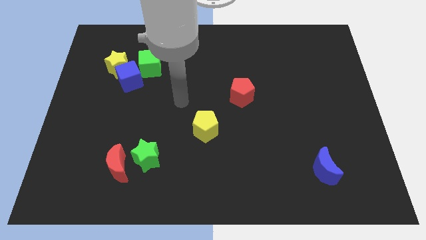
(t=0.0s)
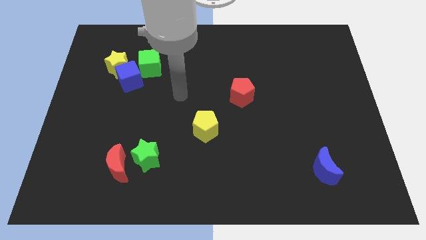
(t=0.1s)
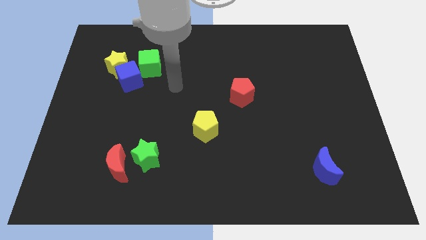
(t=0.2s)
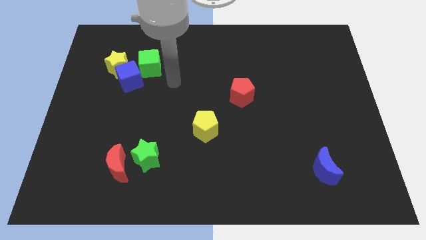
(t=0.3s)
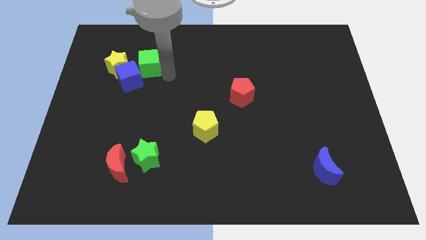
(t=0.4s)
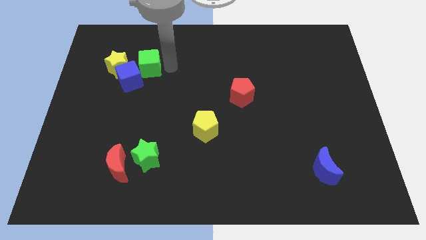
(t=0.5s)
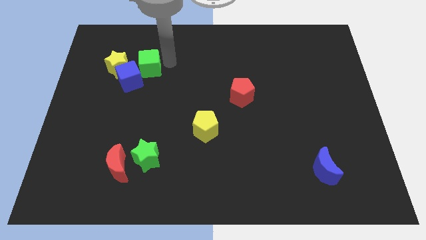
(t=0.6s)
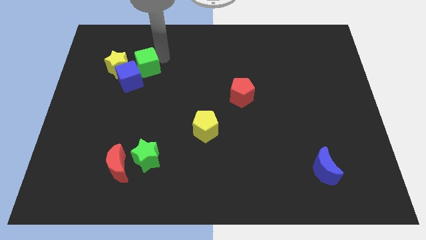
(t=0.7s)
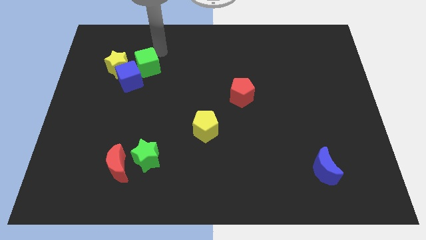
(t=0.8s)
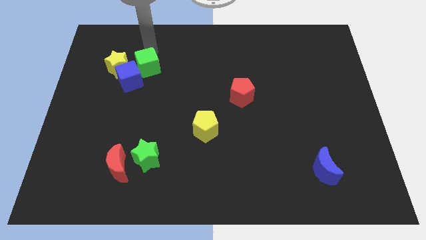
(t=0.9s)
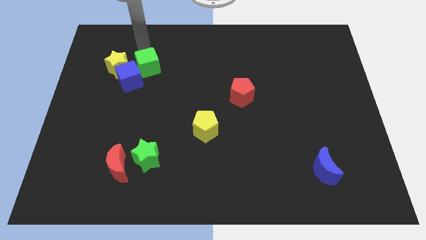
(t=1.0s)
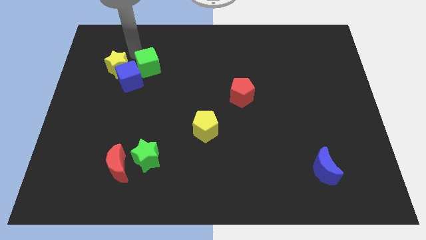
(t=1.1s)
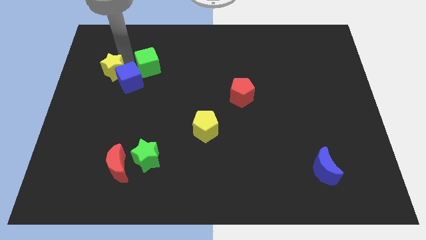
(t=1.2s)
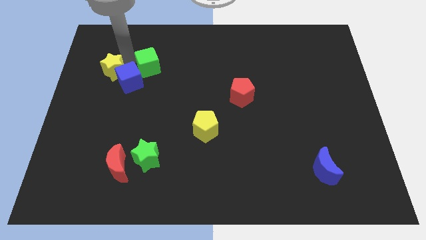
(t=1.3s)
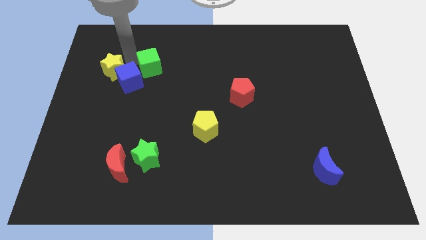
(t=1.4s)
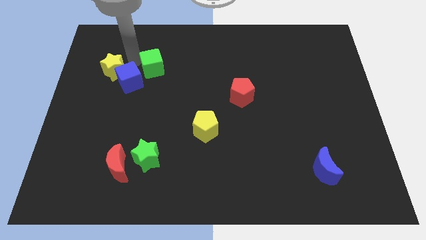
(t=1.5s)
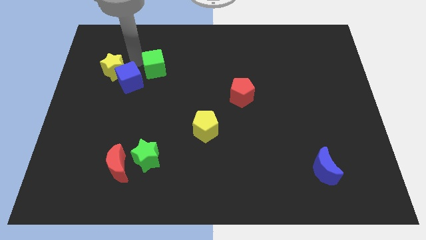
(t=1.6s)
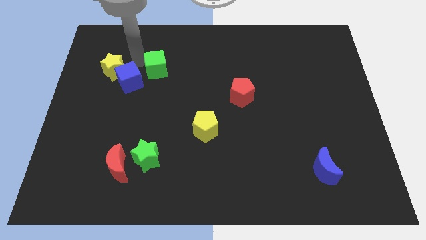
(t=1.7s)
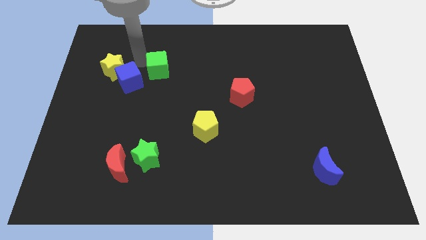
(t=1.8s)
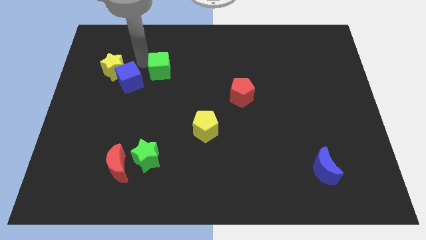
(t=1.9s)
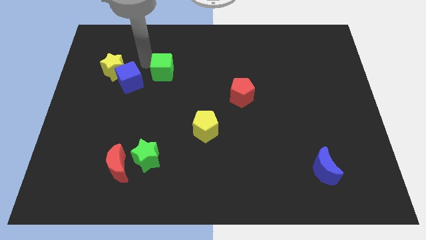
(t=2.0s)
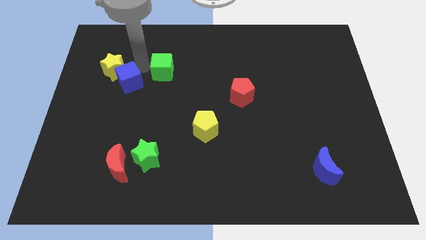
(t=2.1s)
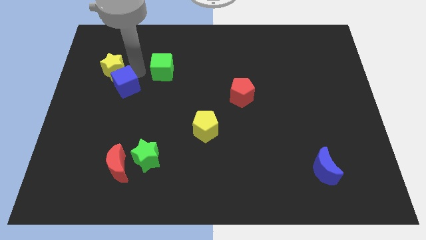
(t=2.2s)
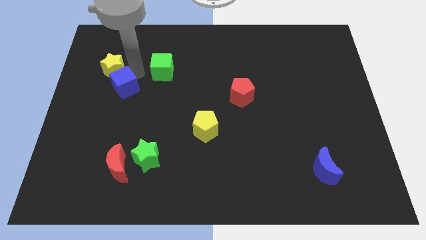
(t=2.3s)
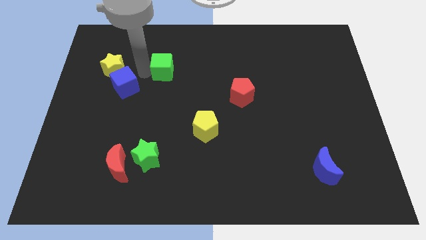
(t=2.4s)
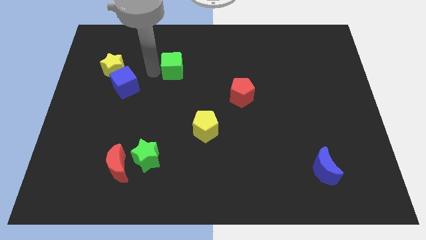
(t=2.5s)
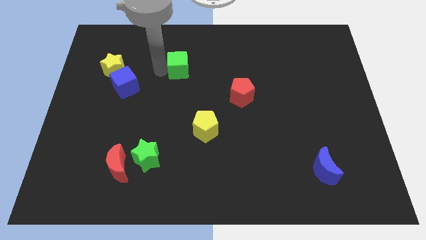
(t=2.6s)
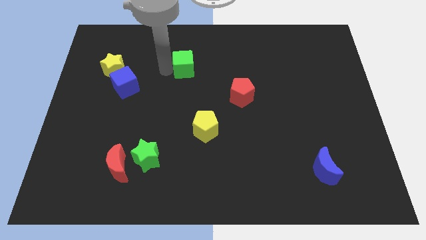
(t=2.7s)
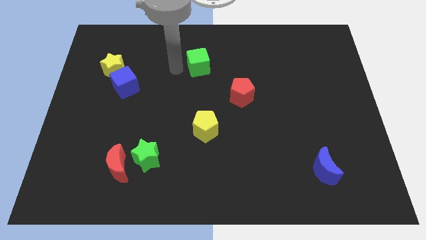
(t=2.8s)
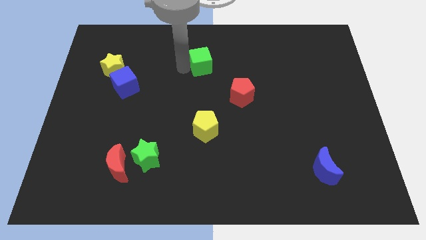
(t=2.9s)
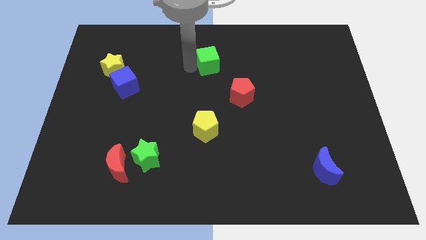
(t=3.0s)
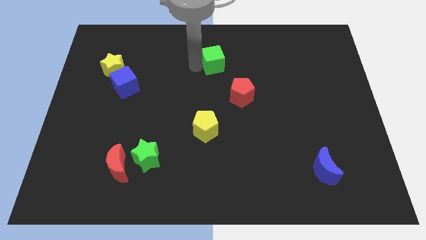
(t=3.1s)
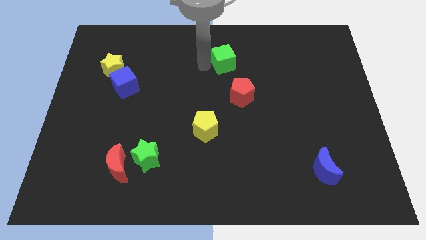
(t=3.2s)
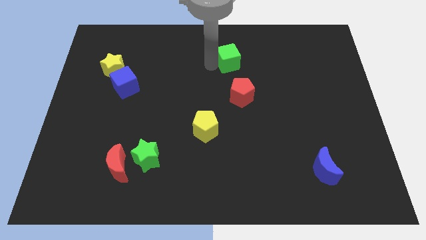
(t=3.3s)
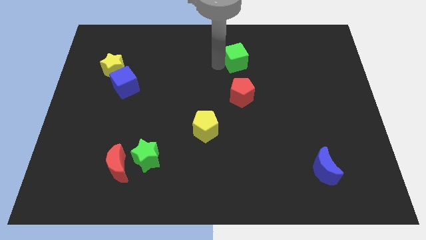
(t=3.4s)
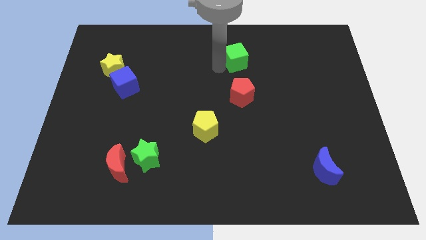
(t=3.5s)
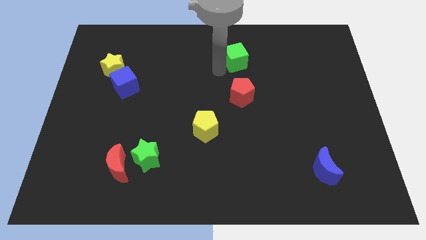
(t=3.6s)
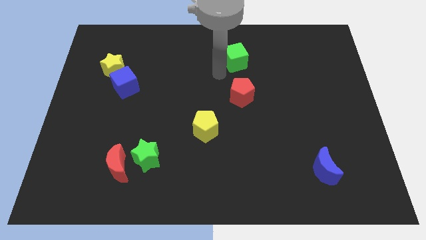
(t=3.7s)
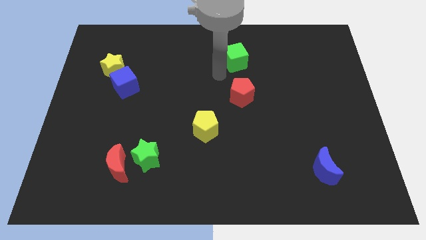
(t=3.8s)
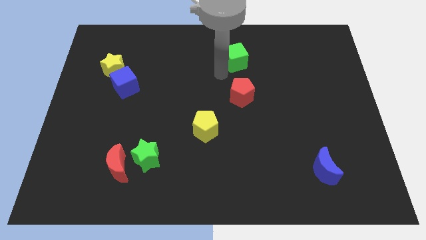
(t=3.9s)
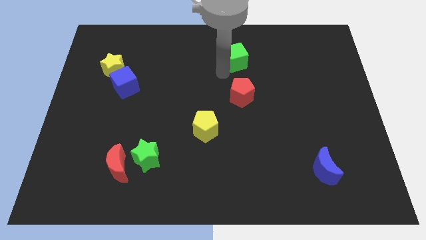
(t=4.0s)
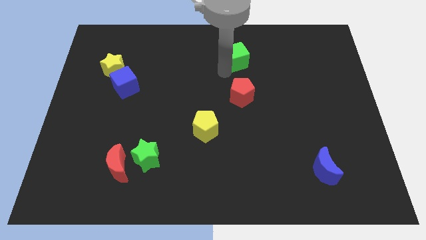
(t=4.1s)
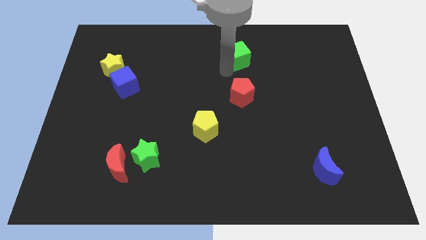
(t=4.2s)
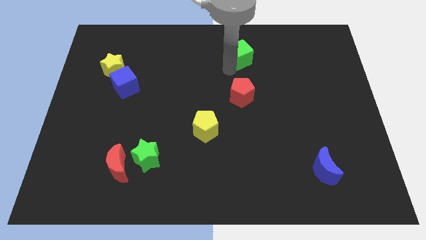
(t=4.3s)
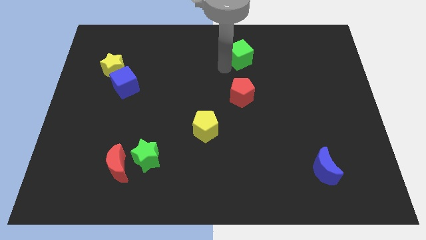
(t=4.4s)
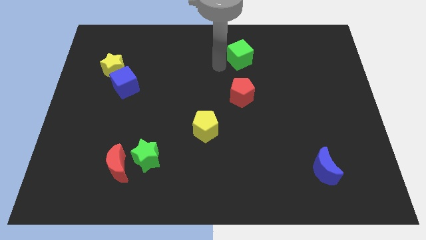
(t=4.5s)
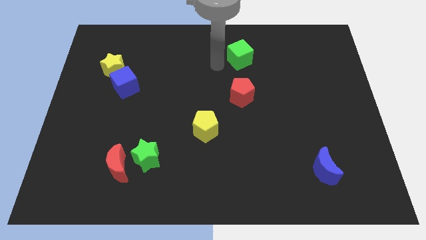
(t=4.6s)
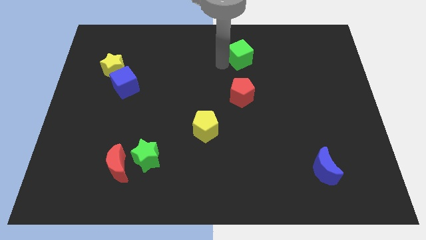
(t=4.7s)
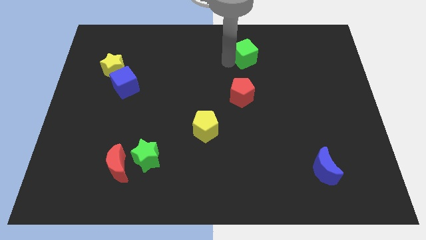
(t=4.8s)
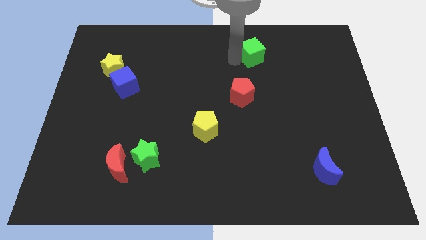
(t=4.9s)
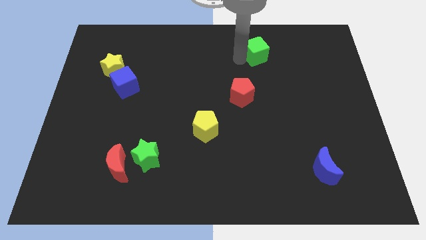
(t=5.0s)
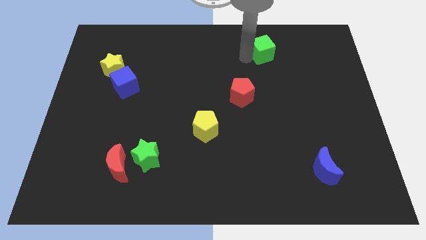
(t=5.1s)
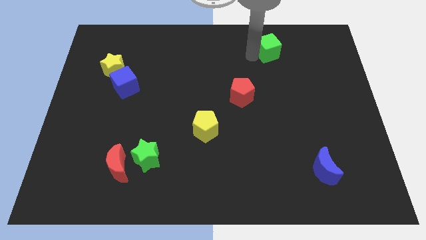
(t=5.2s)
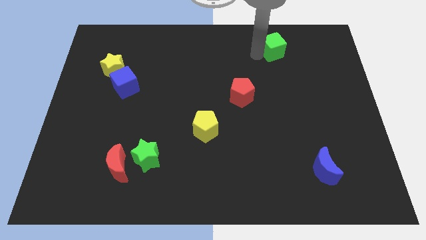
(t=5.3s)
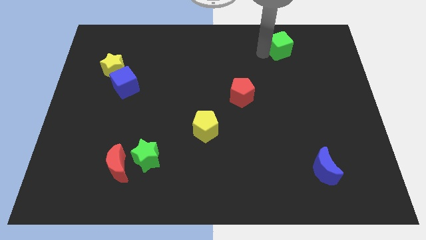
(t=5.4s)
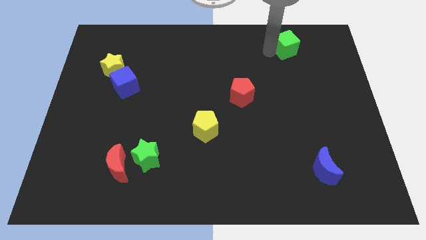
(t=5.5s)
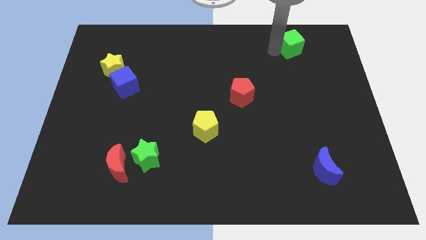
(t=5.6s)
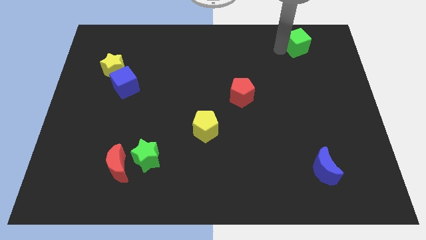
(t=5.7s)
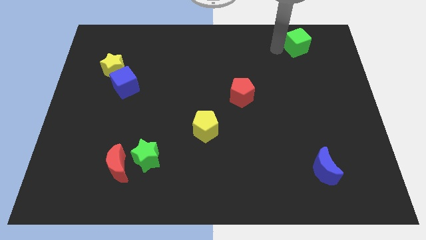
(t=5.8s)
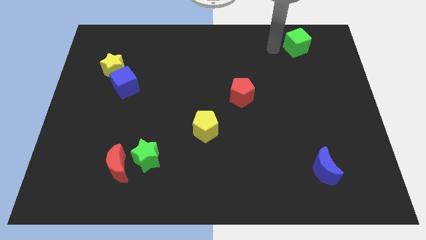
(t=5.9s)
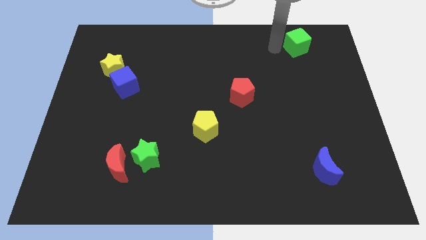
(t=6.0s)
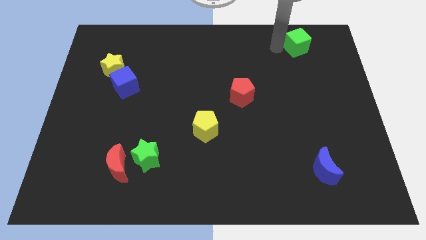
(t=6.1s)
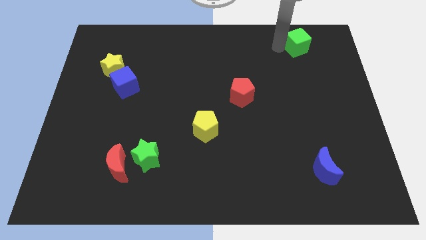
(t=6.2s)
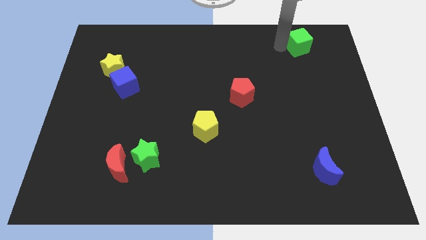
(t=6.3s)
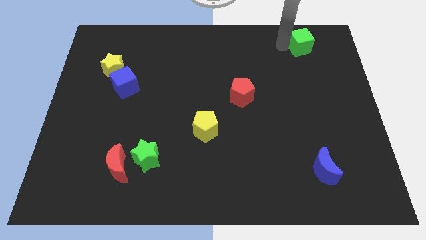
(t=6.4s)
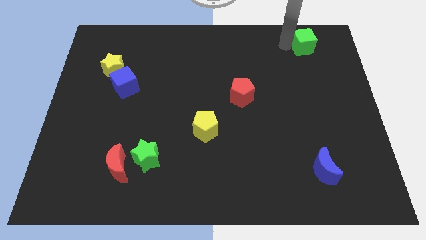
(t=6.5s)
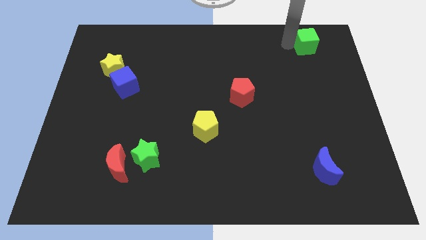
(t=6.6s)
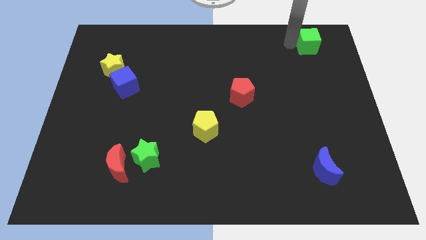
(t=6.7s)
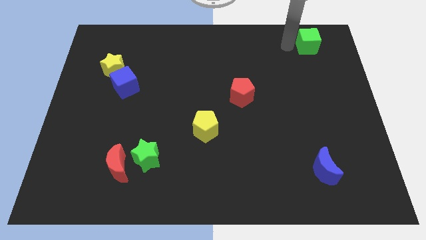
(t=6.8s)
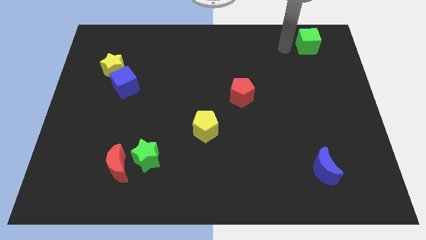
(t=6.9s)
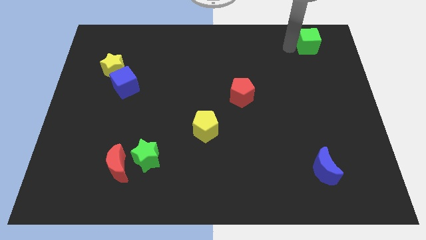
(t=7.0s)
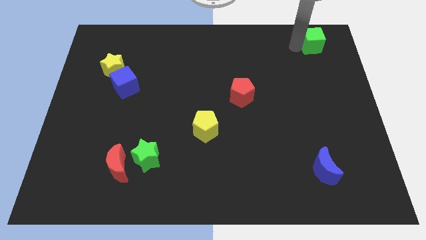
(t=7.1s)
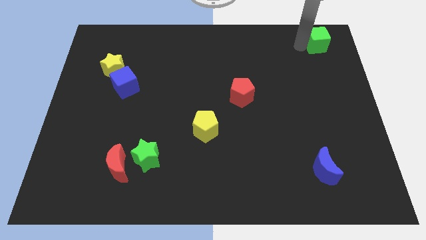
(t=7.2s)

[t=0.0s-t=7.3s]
push the green cube to the top right corner

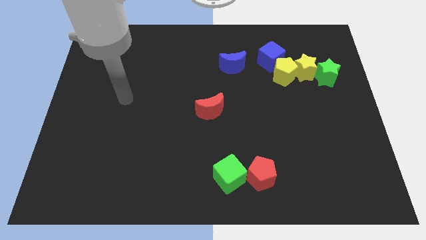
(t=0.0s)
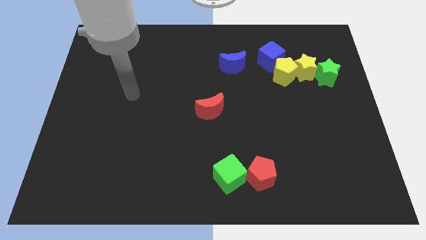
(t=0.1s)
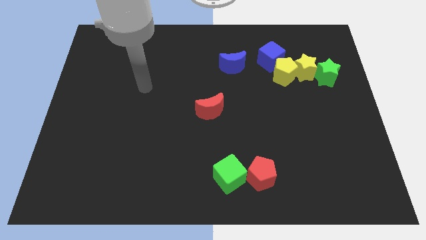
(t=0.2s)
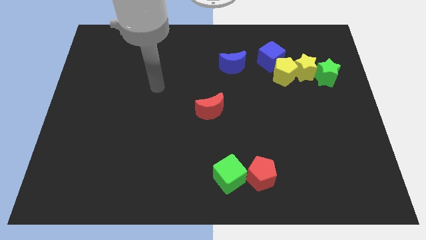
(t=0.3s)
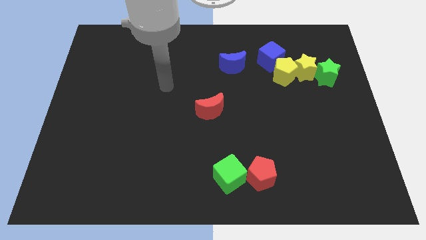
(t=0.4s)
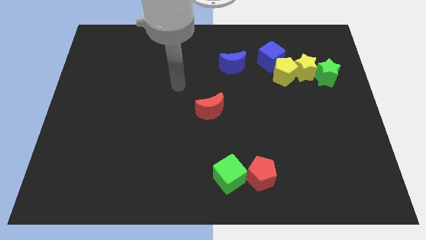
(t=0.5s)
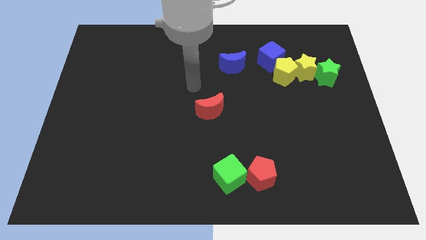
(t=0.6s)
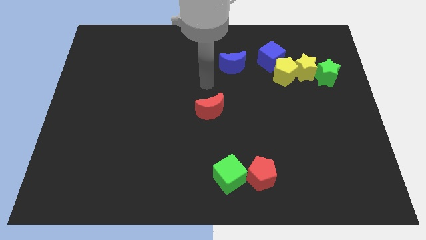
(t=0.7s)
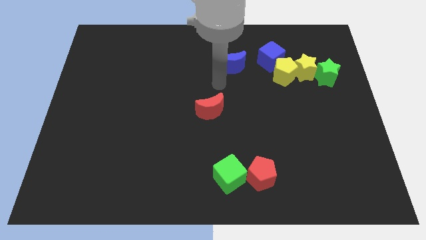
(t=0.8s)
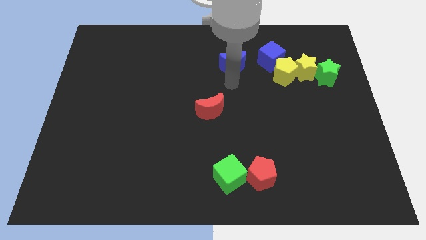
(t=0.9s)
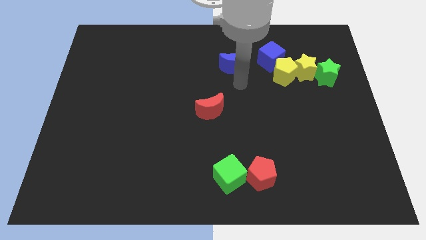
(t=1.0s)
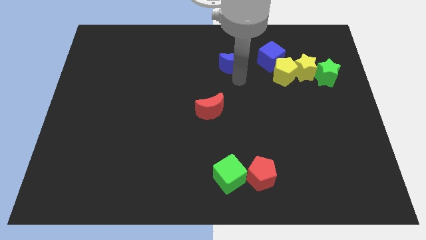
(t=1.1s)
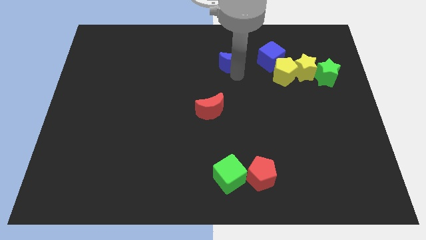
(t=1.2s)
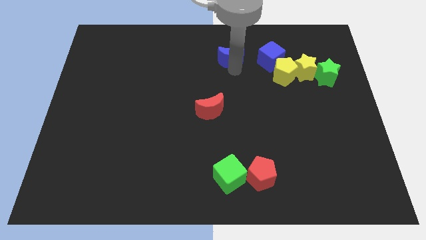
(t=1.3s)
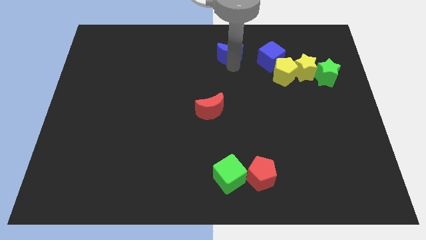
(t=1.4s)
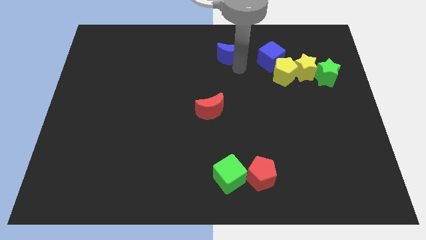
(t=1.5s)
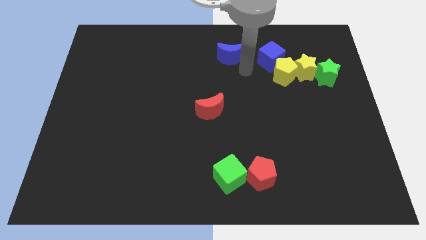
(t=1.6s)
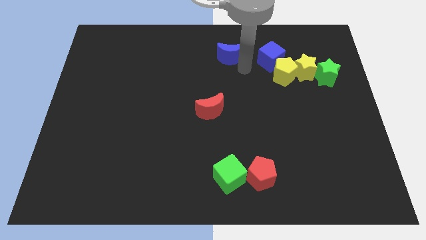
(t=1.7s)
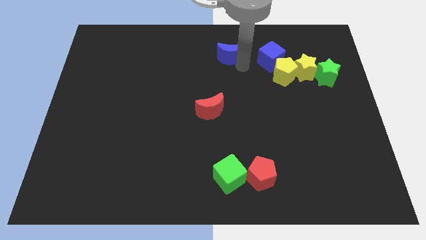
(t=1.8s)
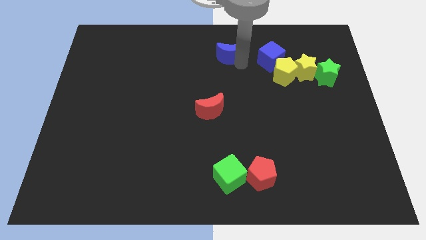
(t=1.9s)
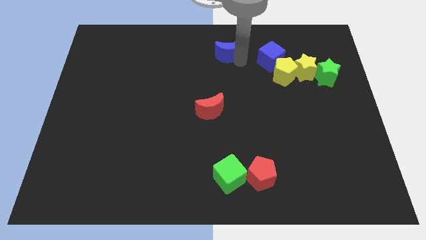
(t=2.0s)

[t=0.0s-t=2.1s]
move the blue moon to the towards your base
